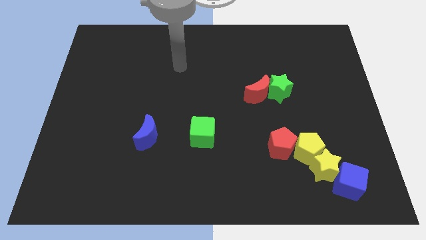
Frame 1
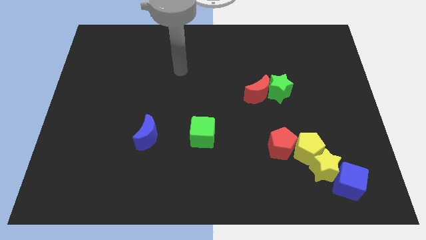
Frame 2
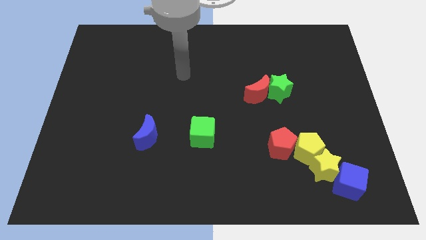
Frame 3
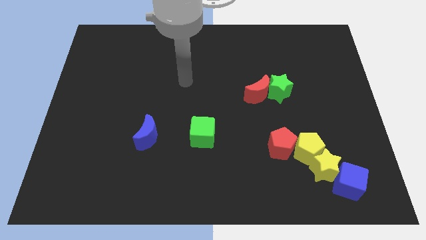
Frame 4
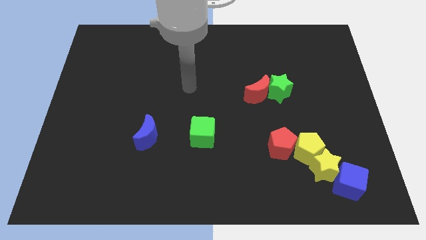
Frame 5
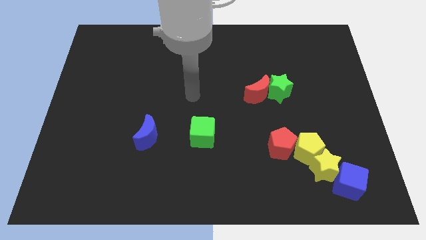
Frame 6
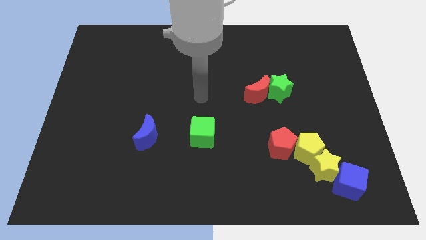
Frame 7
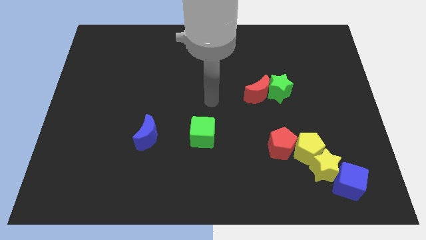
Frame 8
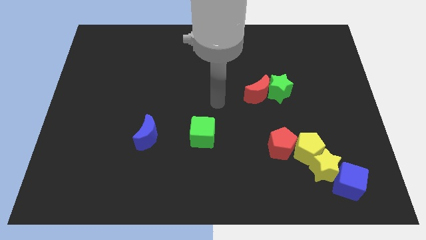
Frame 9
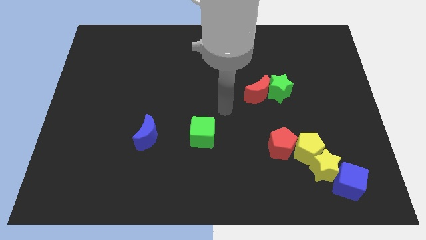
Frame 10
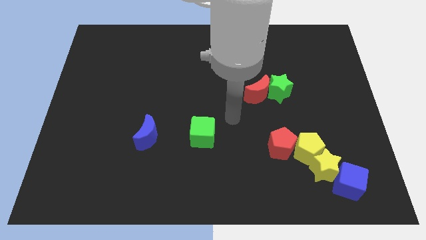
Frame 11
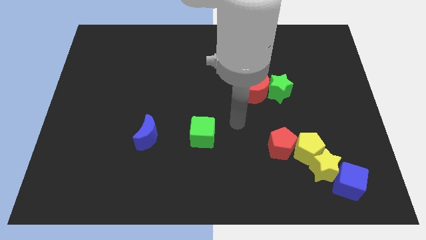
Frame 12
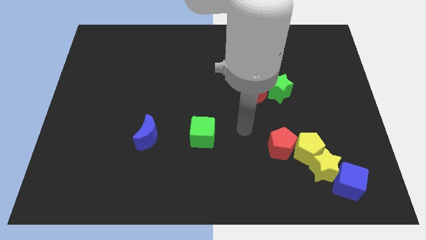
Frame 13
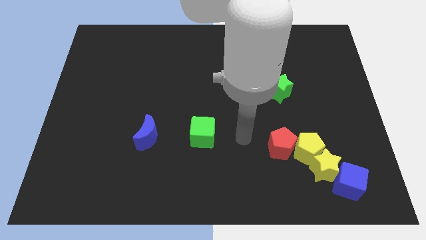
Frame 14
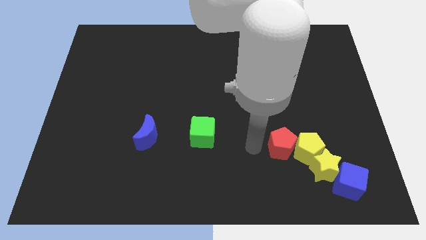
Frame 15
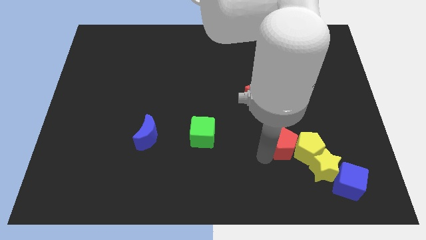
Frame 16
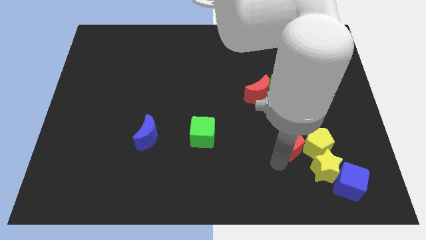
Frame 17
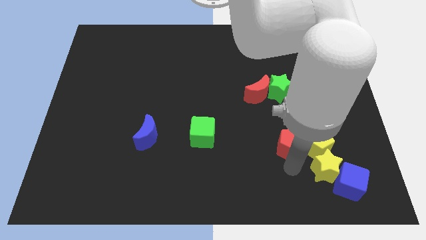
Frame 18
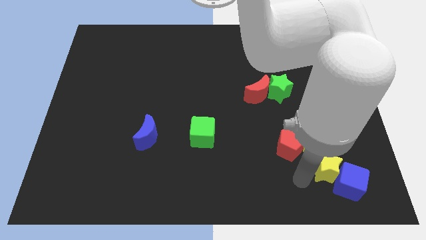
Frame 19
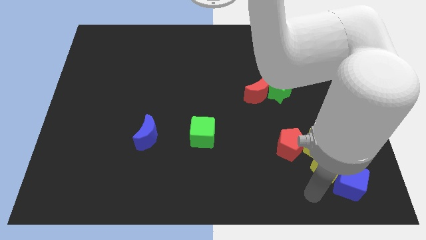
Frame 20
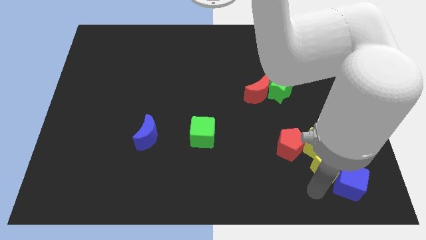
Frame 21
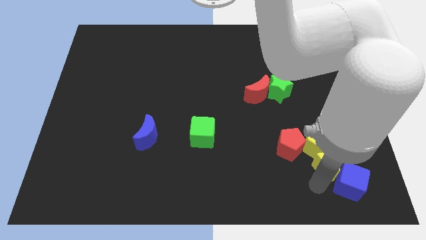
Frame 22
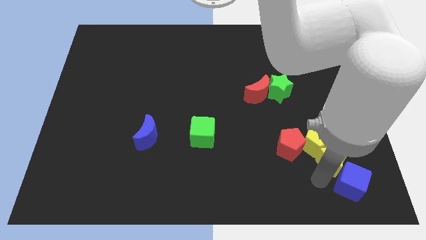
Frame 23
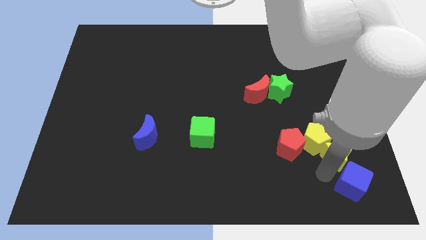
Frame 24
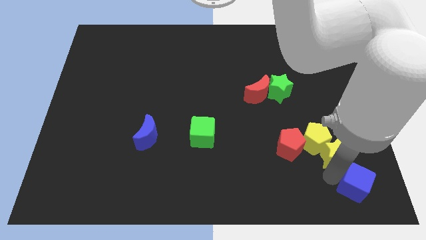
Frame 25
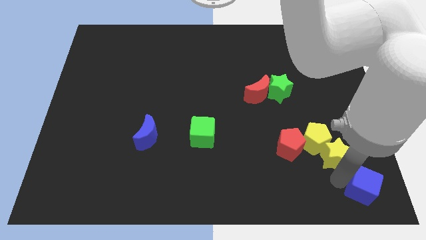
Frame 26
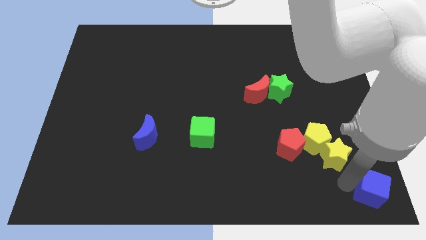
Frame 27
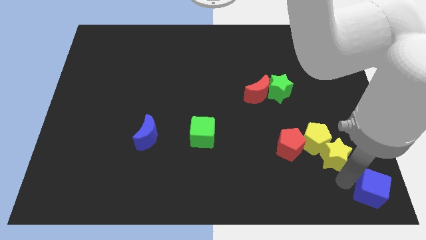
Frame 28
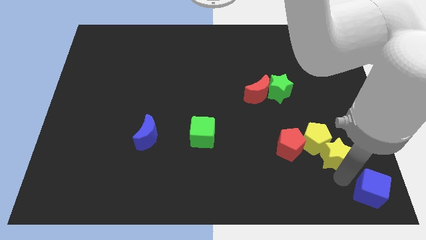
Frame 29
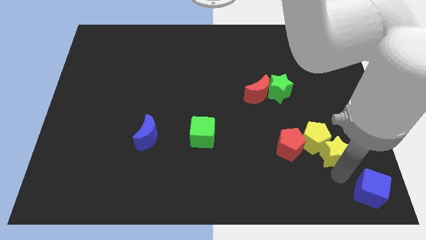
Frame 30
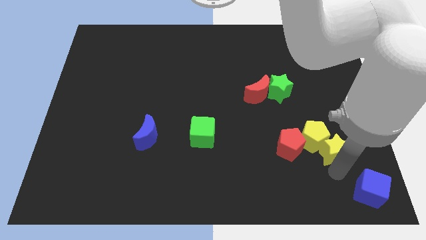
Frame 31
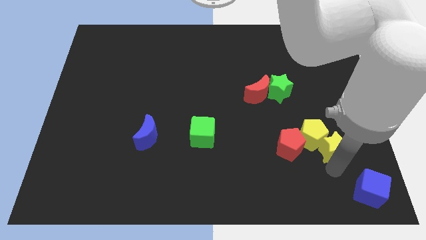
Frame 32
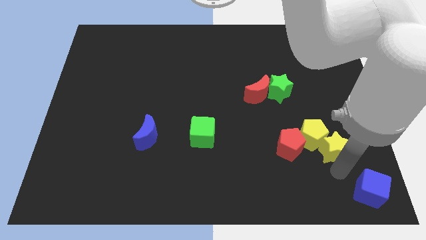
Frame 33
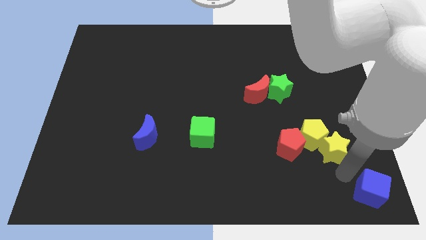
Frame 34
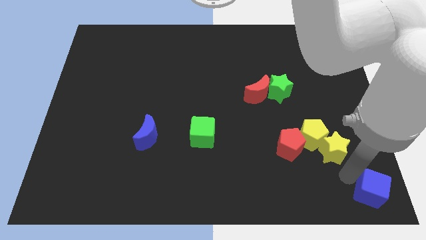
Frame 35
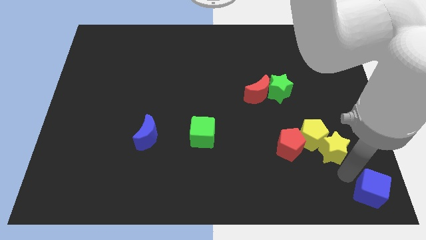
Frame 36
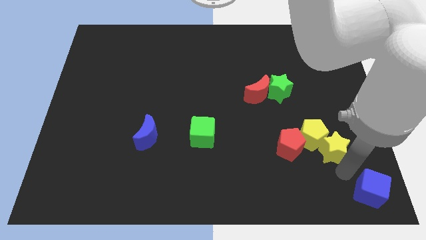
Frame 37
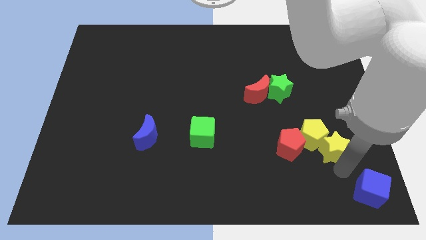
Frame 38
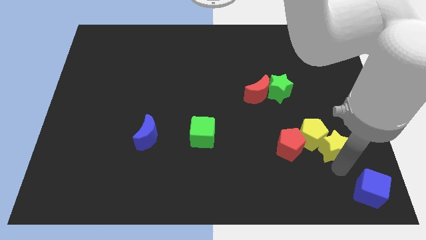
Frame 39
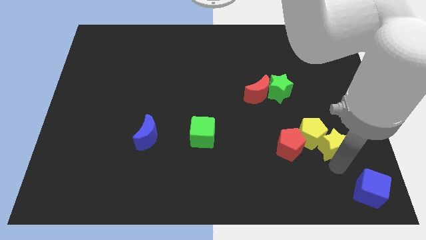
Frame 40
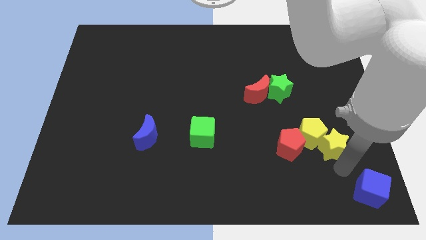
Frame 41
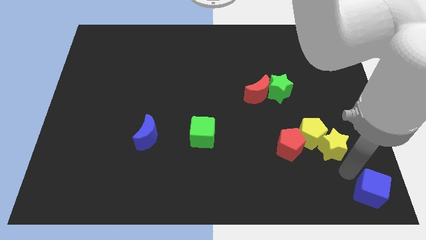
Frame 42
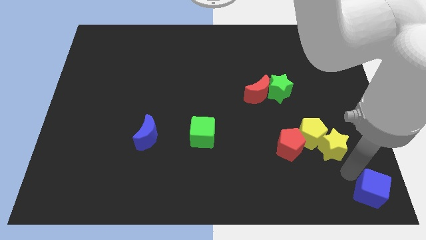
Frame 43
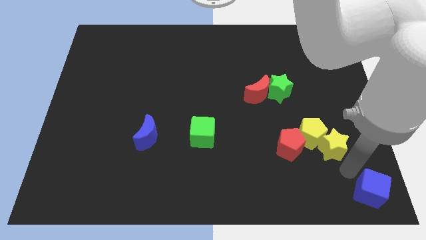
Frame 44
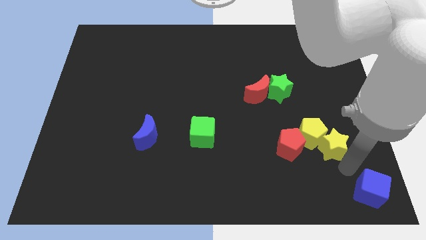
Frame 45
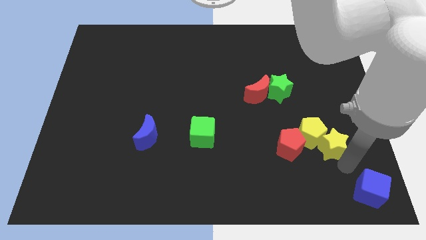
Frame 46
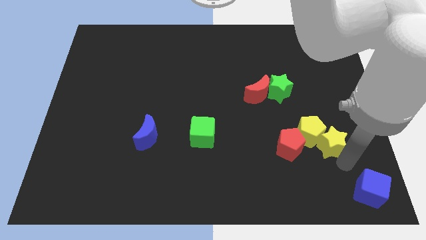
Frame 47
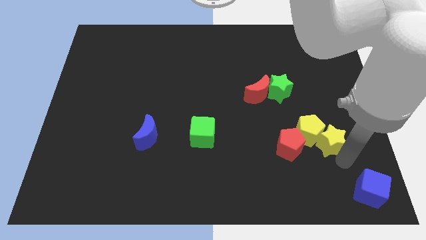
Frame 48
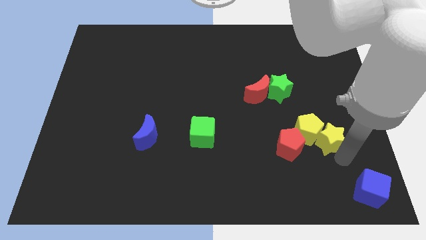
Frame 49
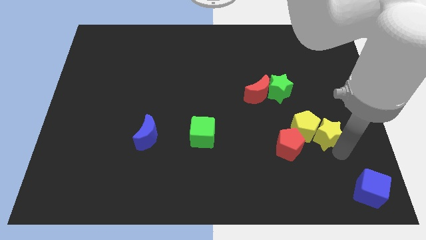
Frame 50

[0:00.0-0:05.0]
slightly push the yellow star up

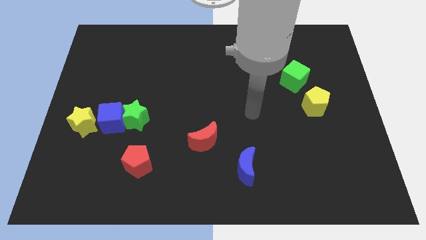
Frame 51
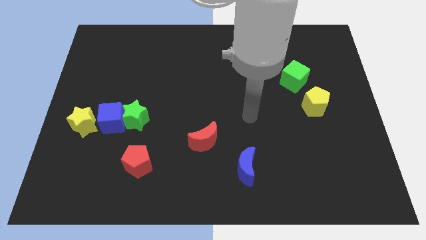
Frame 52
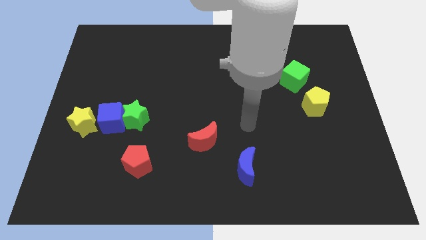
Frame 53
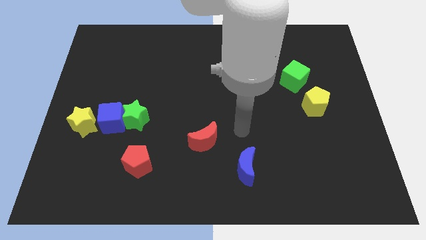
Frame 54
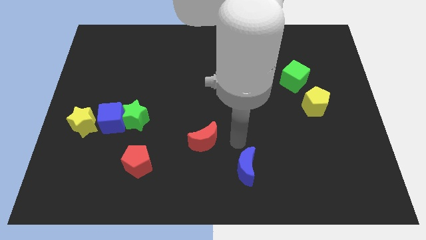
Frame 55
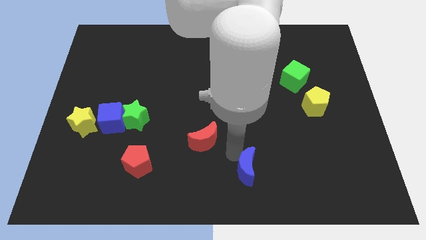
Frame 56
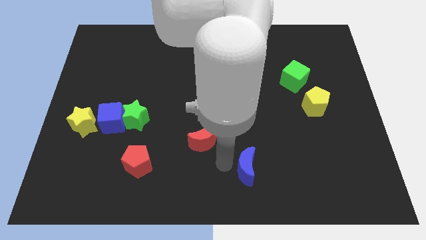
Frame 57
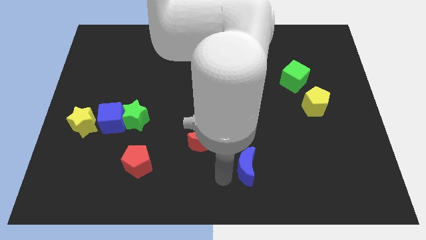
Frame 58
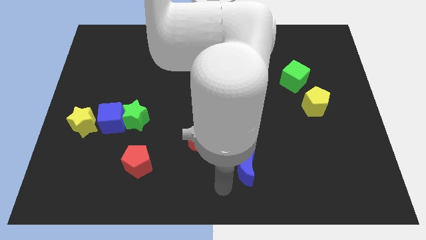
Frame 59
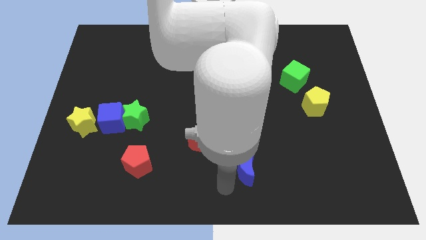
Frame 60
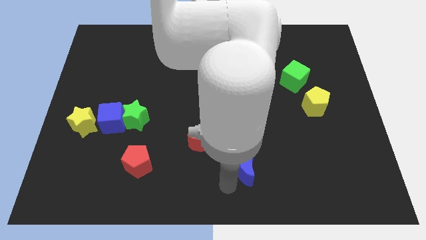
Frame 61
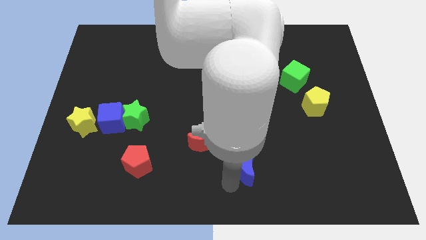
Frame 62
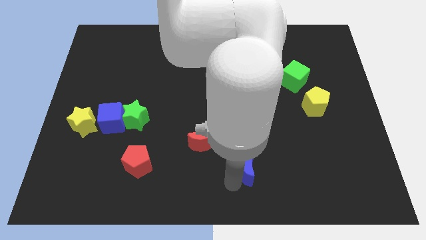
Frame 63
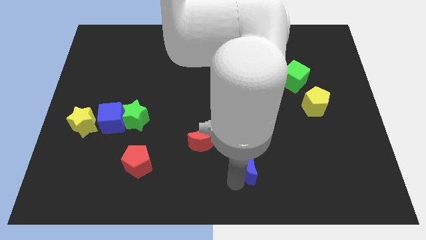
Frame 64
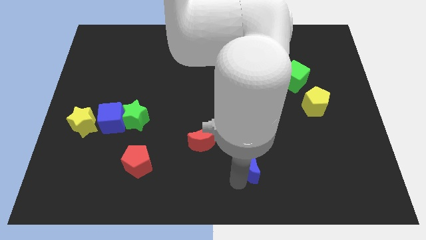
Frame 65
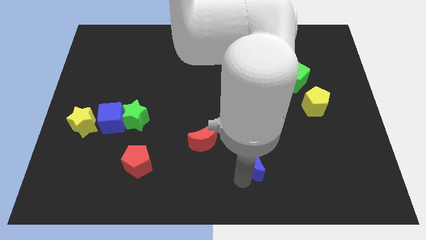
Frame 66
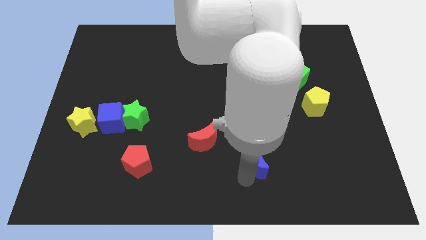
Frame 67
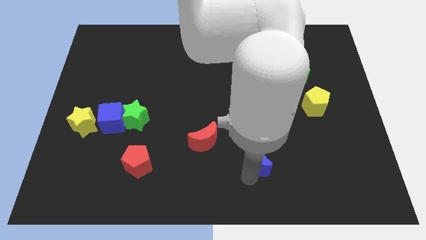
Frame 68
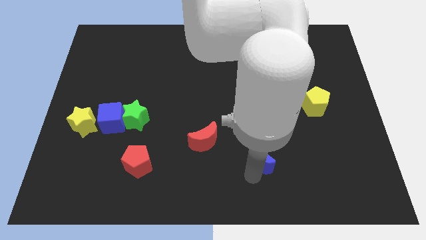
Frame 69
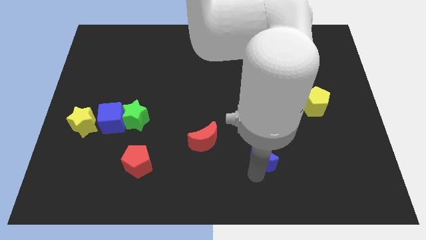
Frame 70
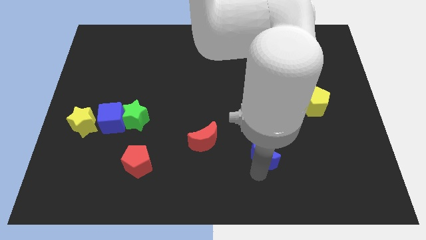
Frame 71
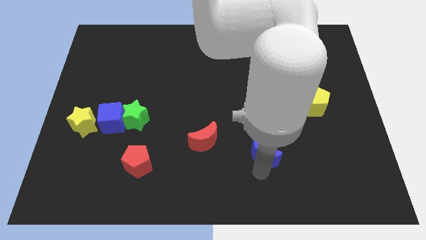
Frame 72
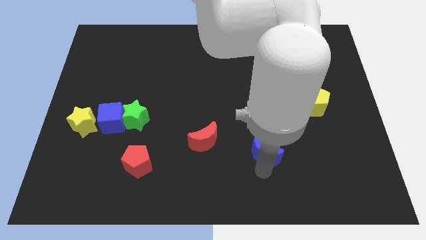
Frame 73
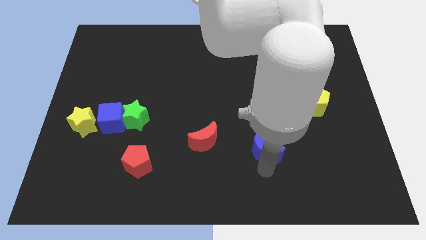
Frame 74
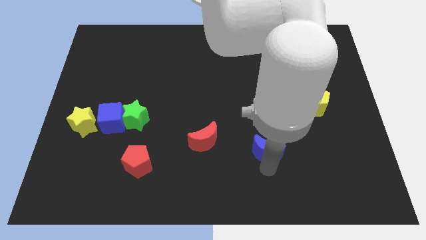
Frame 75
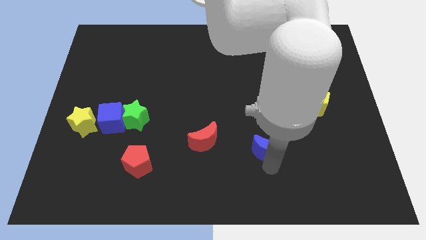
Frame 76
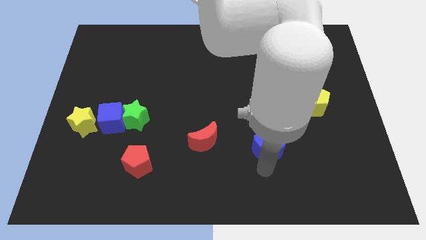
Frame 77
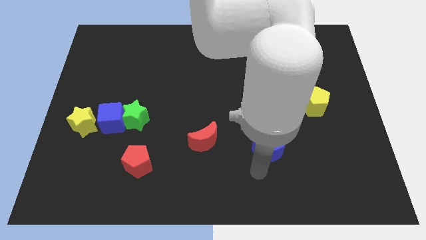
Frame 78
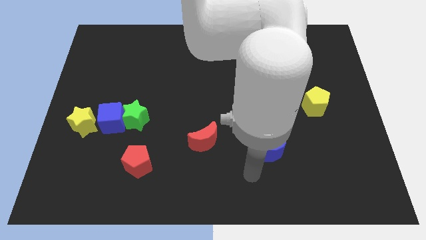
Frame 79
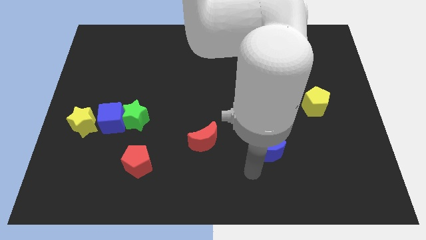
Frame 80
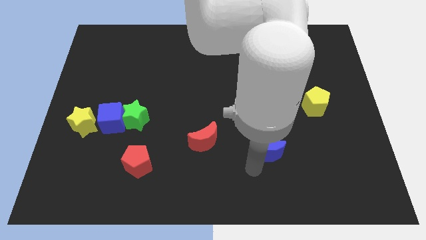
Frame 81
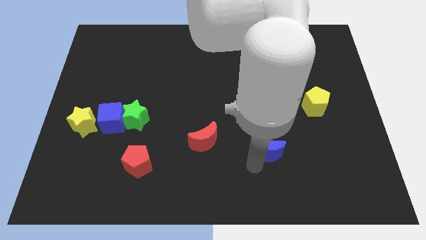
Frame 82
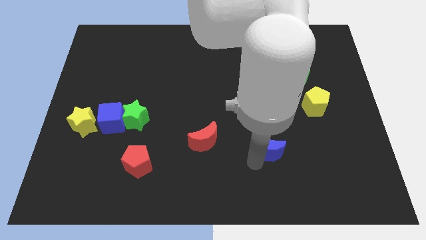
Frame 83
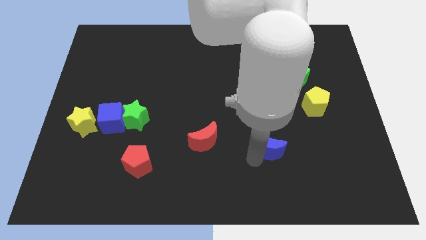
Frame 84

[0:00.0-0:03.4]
slide the blue moon upwards and to the right diagonally a little
